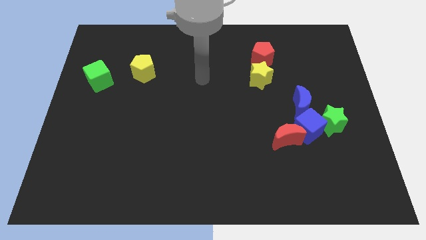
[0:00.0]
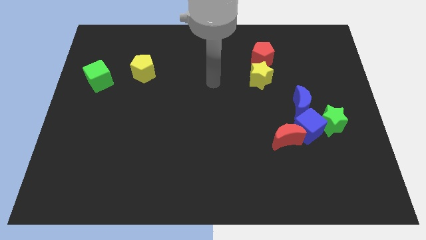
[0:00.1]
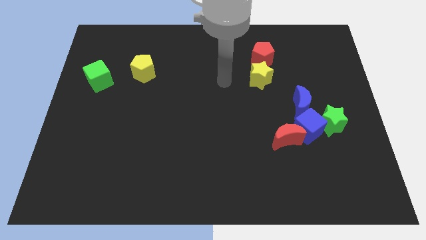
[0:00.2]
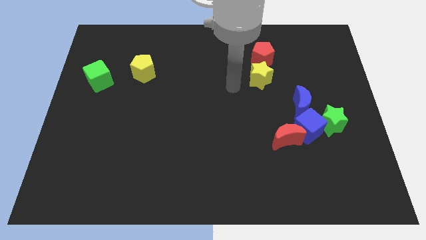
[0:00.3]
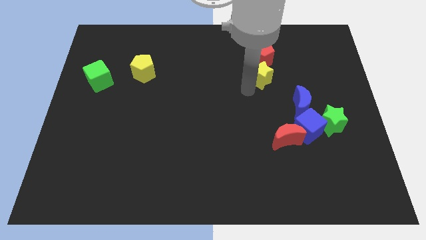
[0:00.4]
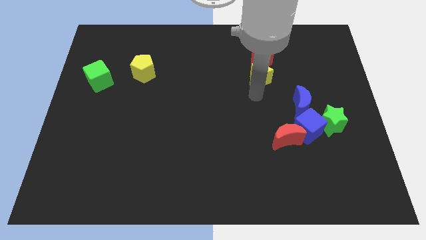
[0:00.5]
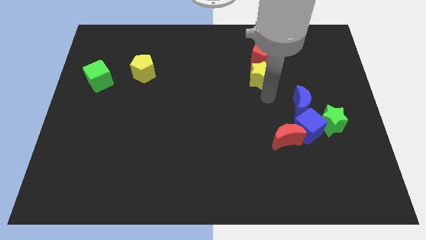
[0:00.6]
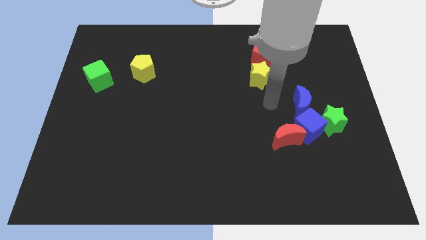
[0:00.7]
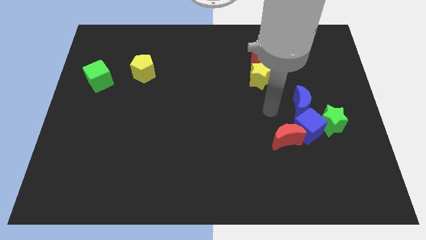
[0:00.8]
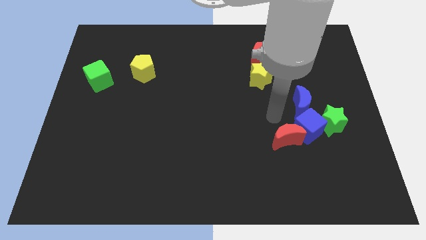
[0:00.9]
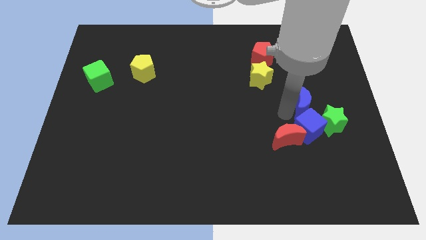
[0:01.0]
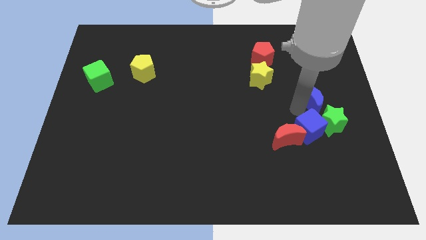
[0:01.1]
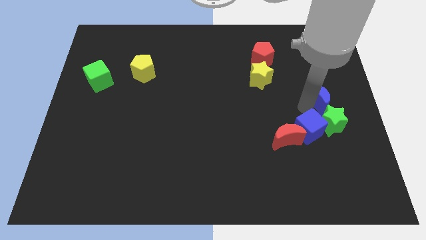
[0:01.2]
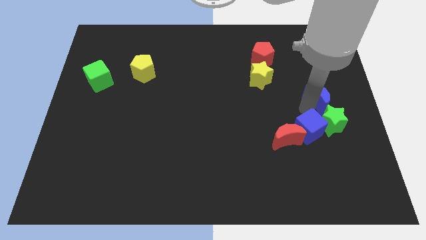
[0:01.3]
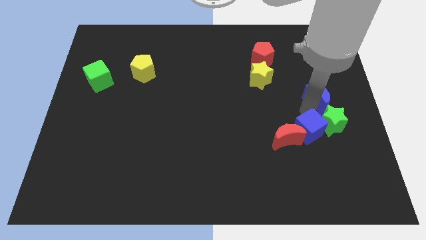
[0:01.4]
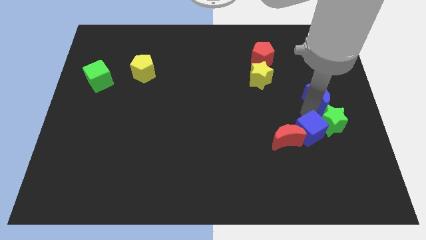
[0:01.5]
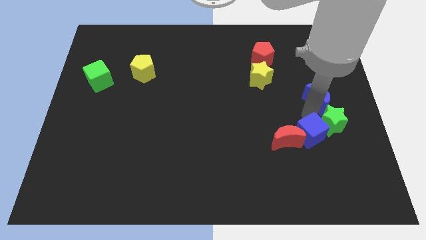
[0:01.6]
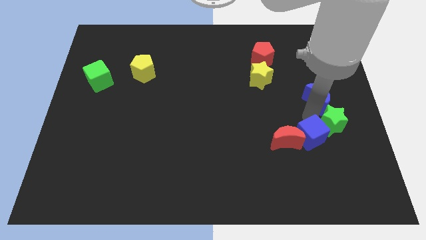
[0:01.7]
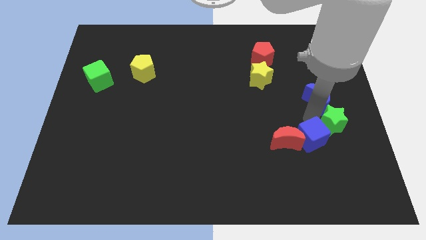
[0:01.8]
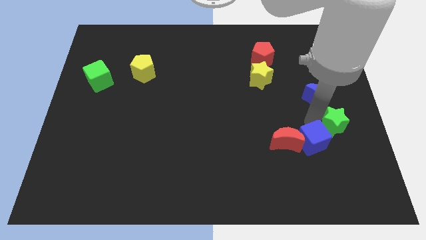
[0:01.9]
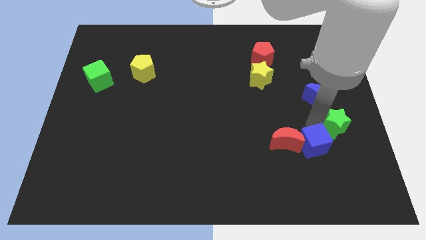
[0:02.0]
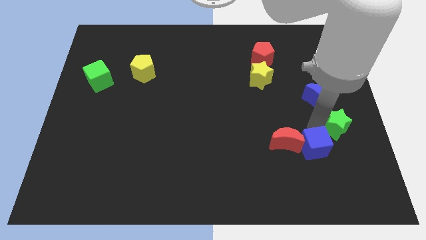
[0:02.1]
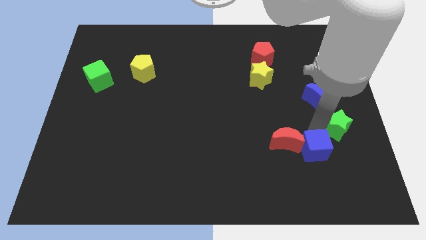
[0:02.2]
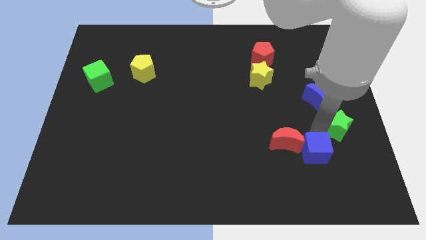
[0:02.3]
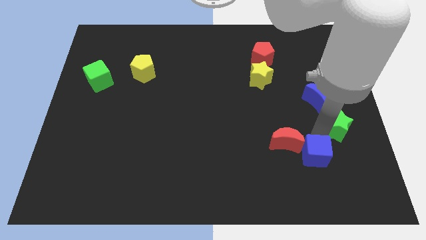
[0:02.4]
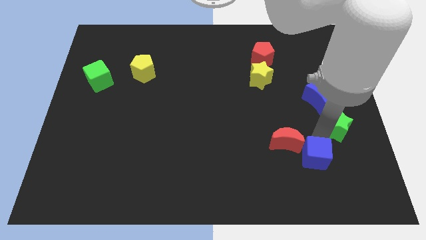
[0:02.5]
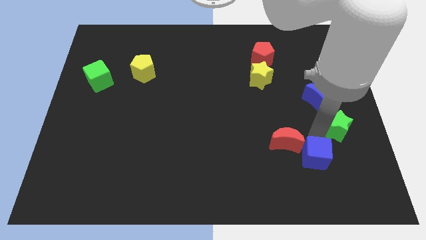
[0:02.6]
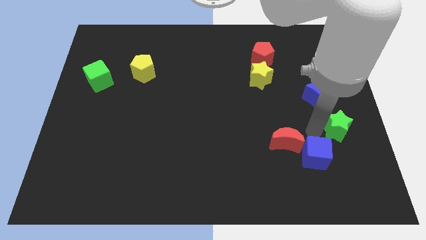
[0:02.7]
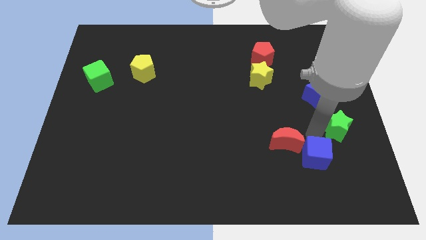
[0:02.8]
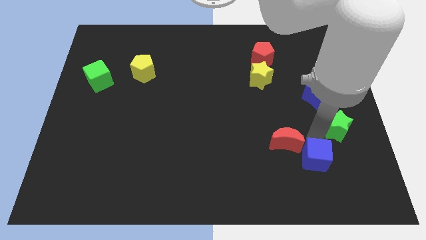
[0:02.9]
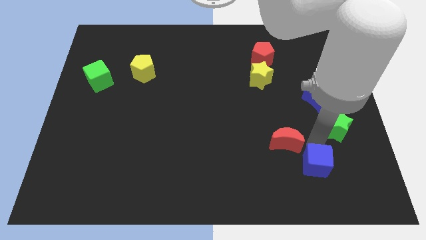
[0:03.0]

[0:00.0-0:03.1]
separate the blue cube from the clump

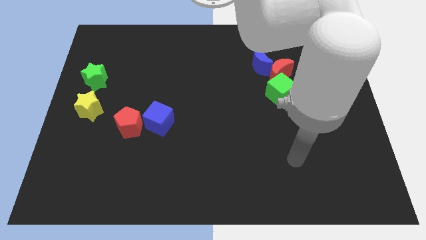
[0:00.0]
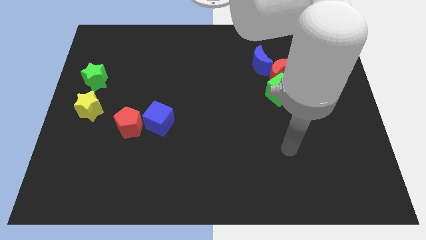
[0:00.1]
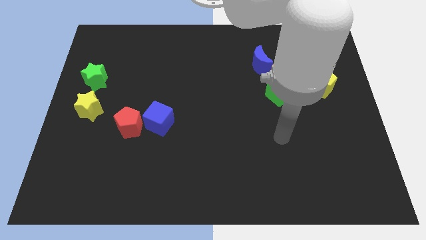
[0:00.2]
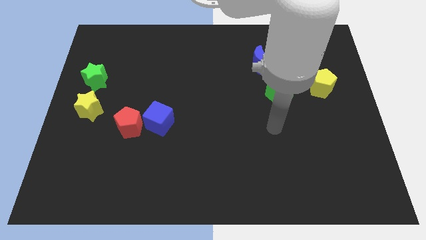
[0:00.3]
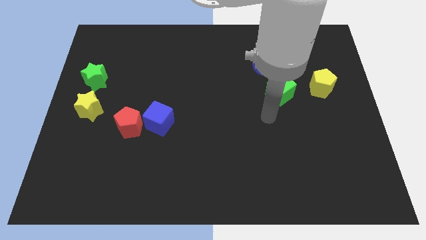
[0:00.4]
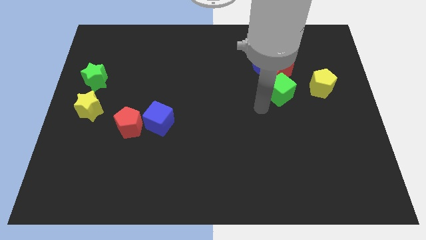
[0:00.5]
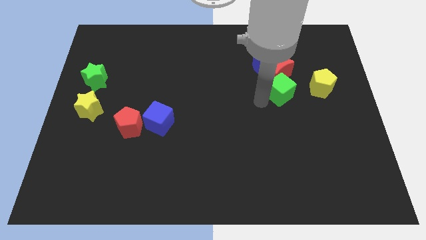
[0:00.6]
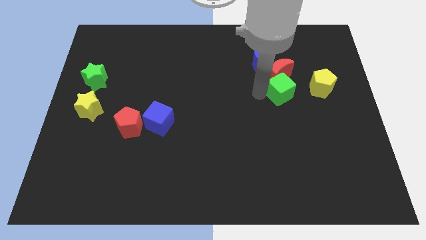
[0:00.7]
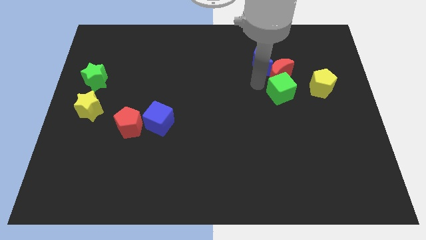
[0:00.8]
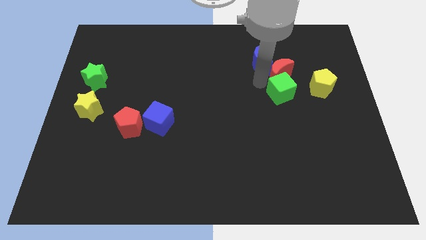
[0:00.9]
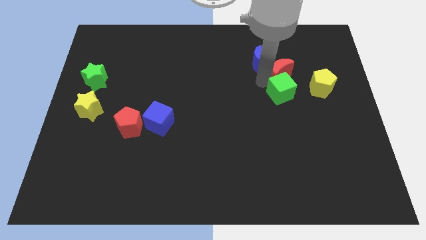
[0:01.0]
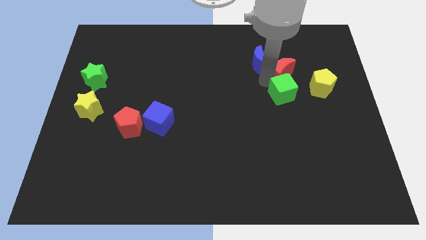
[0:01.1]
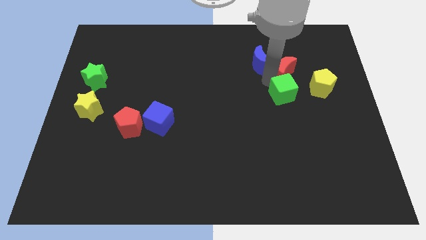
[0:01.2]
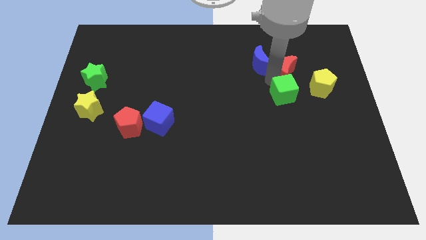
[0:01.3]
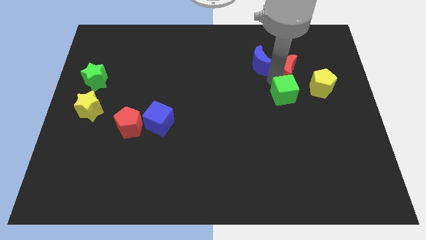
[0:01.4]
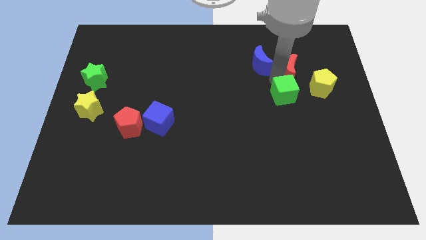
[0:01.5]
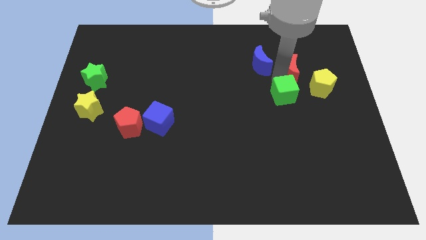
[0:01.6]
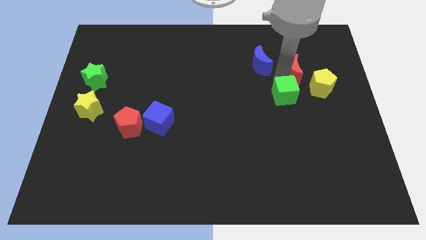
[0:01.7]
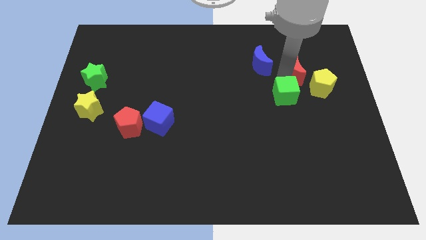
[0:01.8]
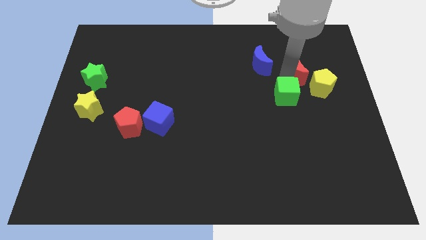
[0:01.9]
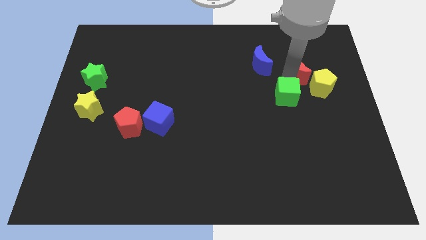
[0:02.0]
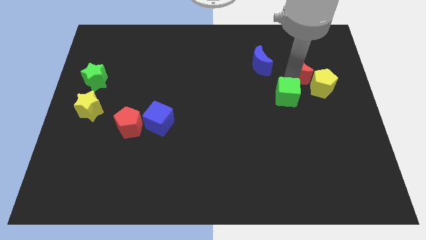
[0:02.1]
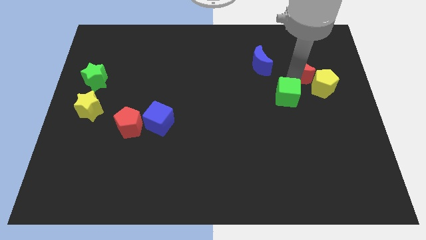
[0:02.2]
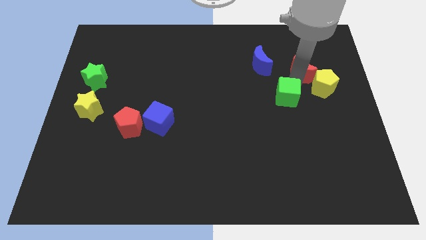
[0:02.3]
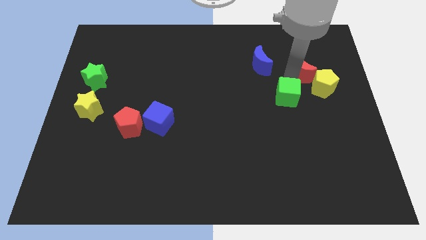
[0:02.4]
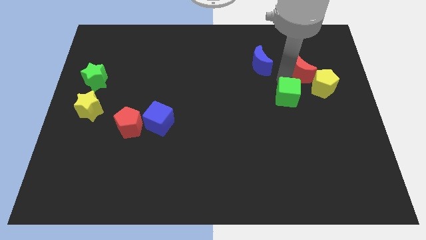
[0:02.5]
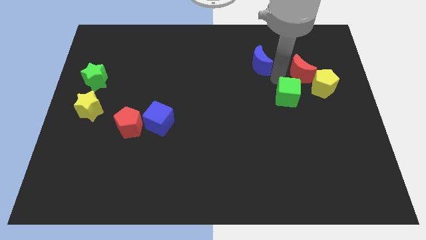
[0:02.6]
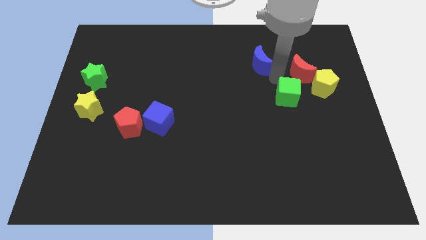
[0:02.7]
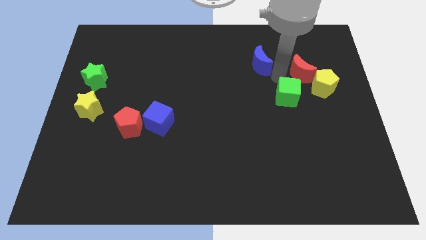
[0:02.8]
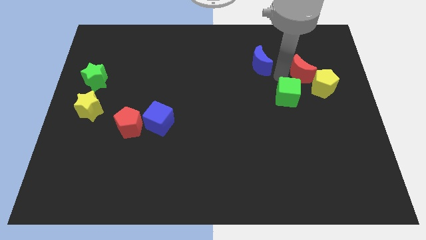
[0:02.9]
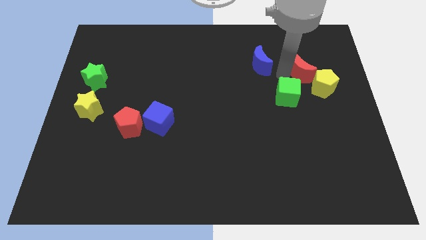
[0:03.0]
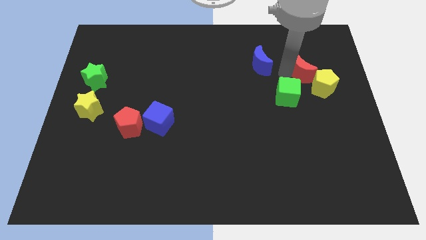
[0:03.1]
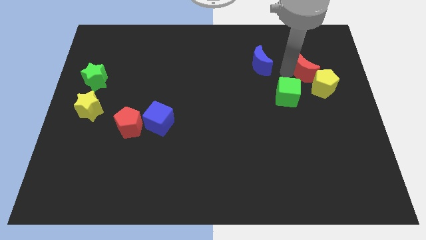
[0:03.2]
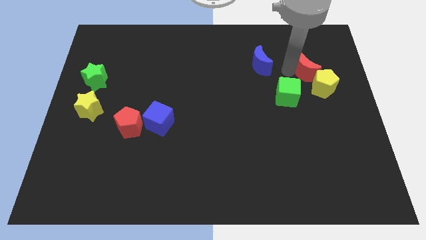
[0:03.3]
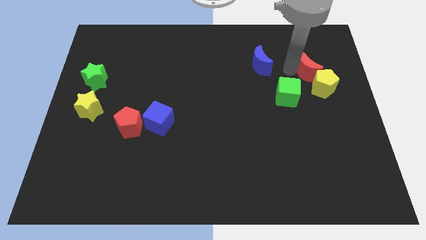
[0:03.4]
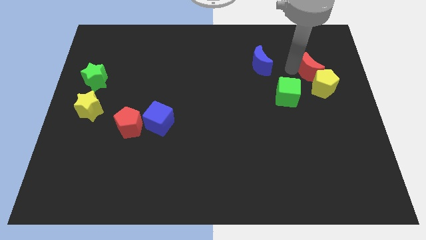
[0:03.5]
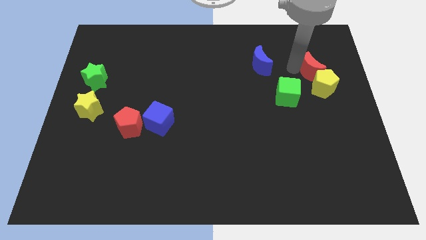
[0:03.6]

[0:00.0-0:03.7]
pull the red moon apart from the blue moon and green cube

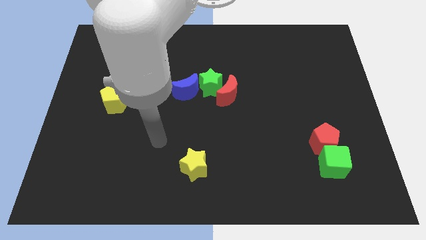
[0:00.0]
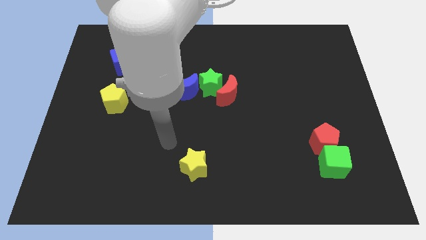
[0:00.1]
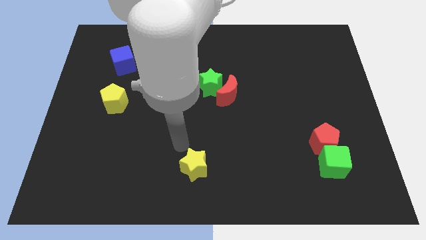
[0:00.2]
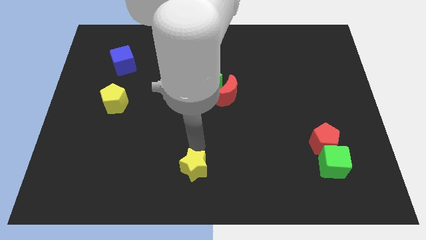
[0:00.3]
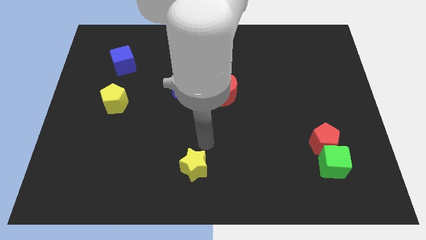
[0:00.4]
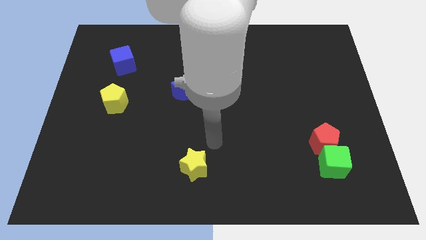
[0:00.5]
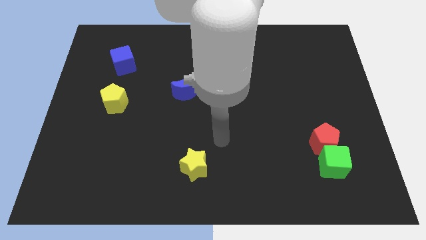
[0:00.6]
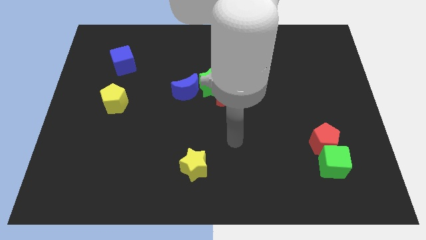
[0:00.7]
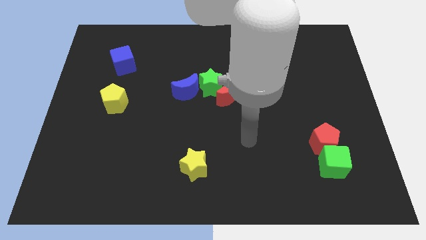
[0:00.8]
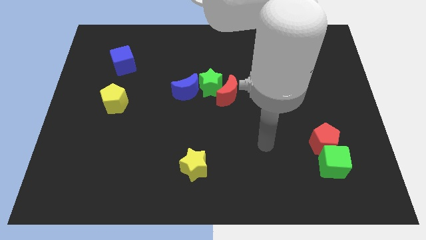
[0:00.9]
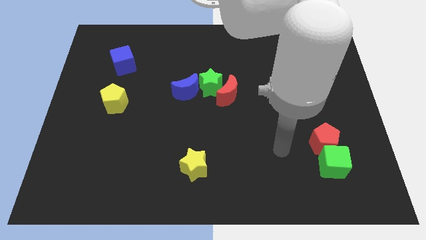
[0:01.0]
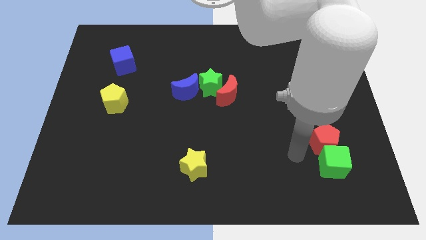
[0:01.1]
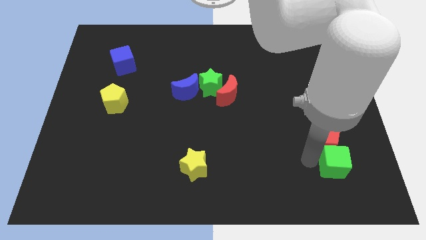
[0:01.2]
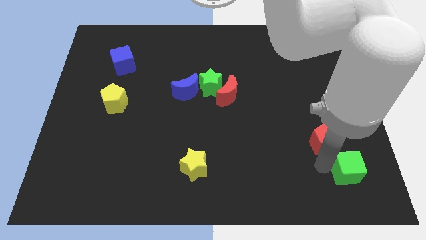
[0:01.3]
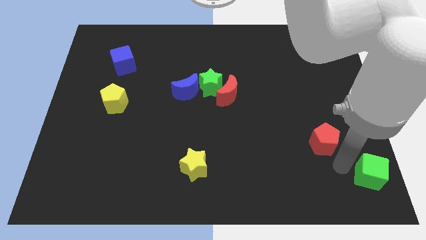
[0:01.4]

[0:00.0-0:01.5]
move the red pentagon away from the green cube

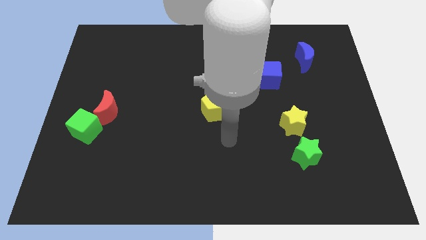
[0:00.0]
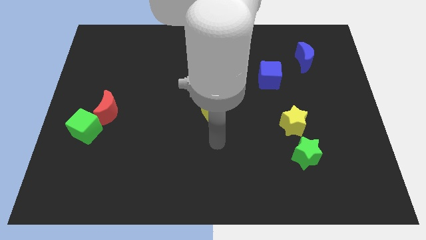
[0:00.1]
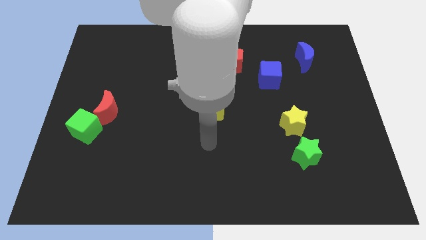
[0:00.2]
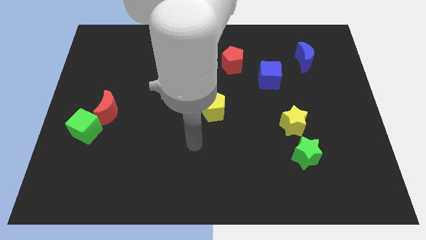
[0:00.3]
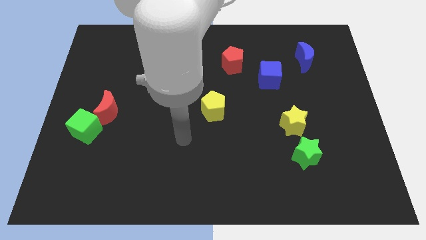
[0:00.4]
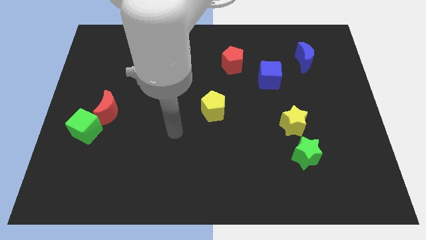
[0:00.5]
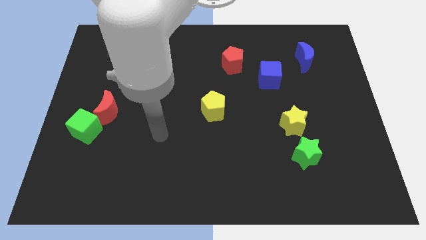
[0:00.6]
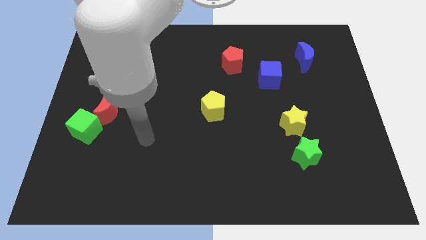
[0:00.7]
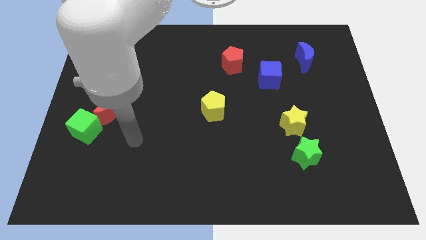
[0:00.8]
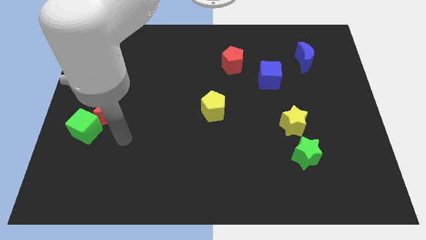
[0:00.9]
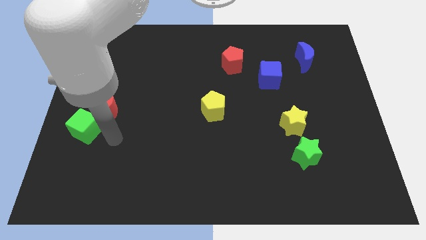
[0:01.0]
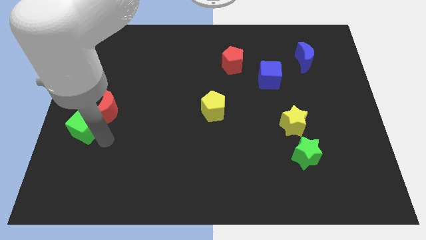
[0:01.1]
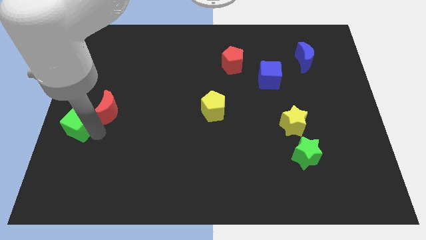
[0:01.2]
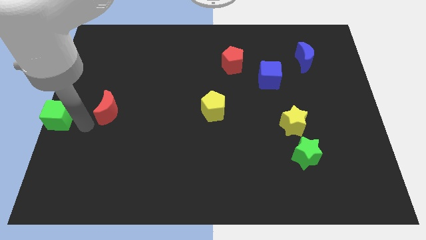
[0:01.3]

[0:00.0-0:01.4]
move the red moon away from the green cube
